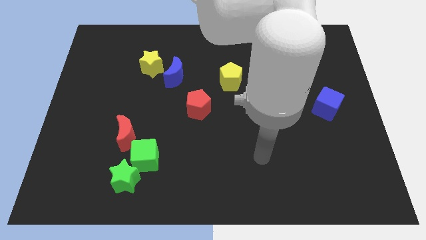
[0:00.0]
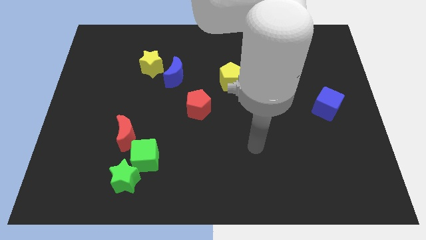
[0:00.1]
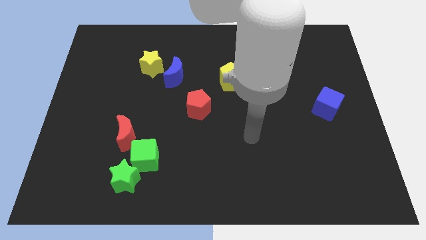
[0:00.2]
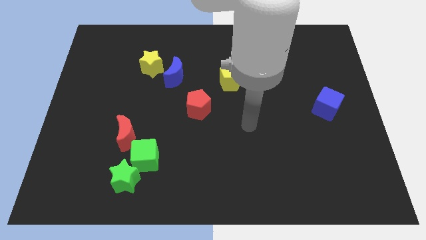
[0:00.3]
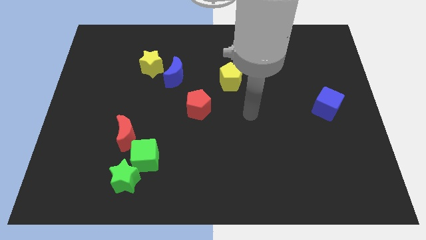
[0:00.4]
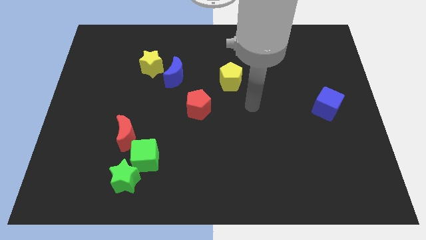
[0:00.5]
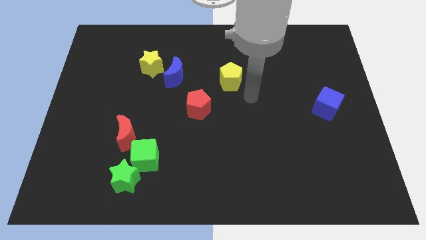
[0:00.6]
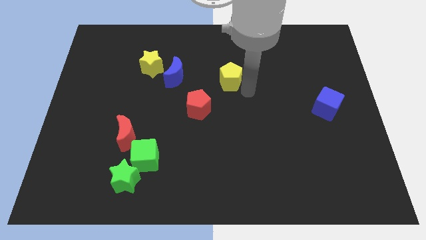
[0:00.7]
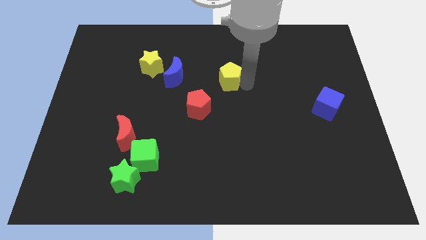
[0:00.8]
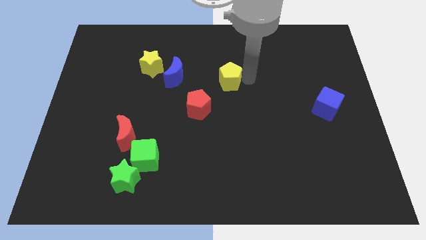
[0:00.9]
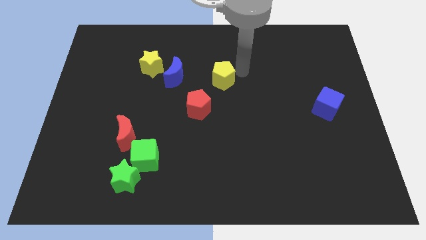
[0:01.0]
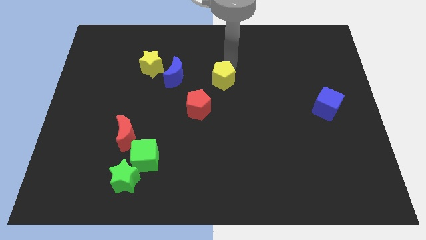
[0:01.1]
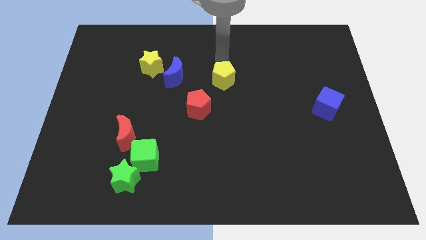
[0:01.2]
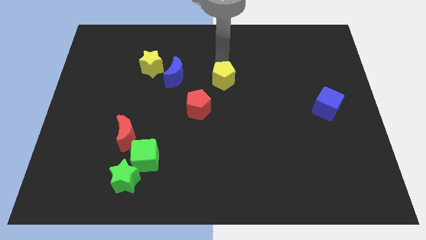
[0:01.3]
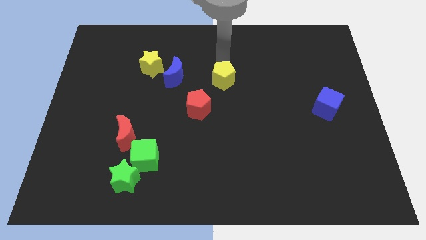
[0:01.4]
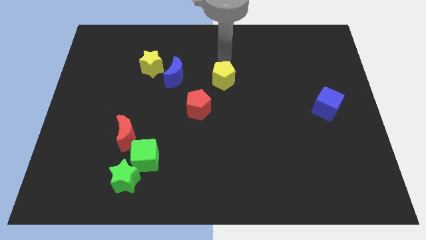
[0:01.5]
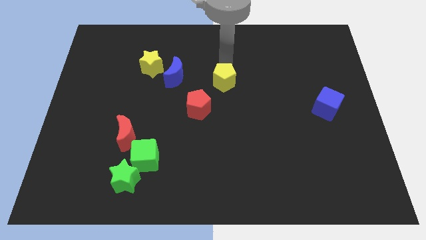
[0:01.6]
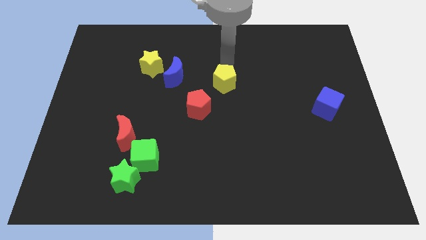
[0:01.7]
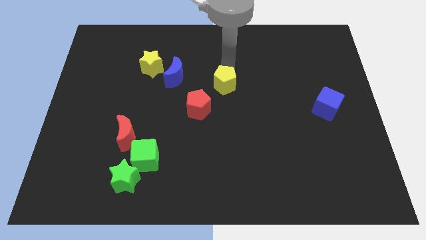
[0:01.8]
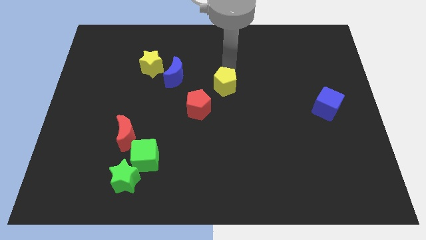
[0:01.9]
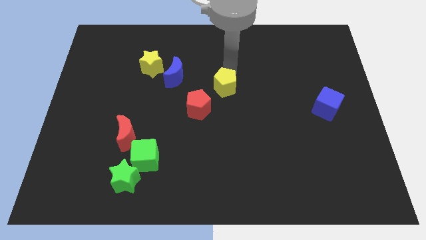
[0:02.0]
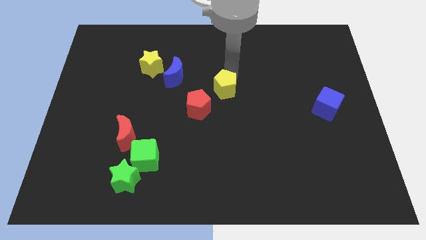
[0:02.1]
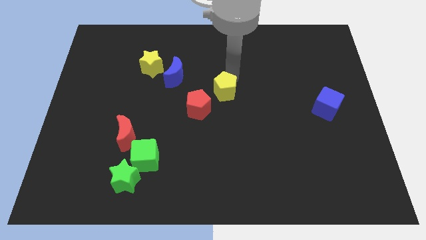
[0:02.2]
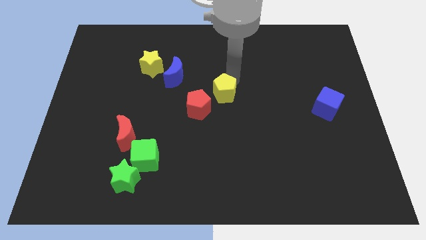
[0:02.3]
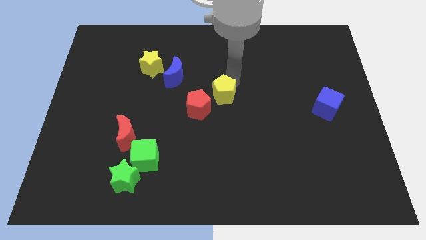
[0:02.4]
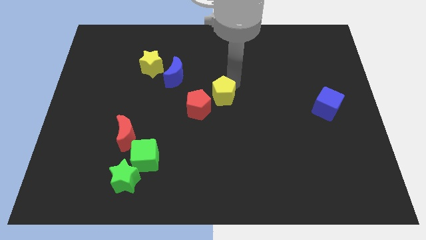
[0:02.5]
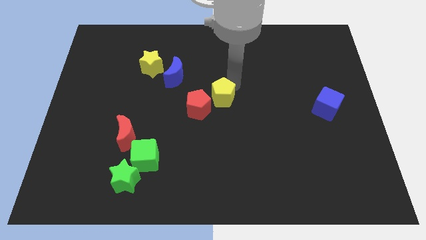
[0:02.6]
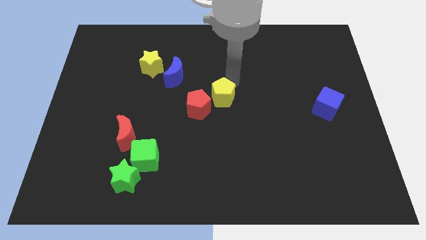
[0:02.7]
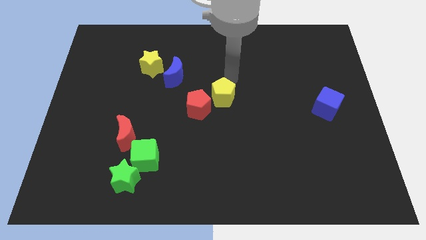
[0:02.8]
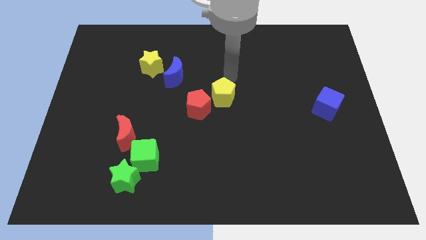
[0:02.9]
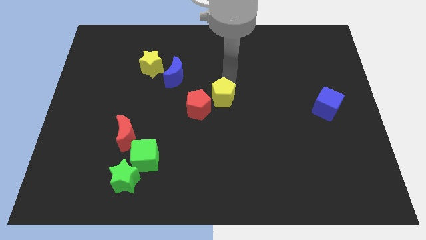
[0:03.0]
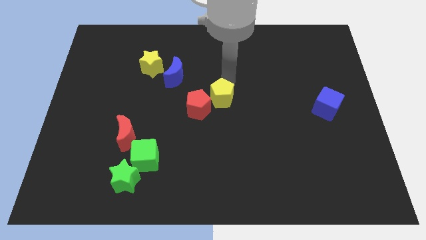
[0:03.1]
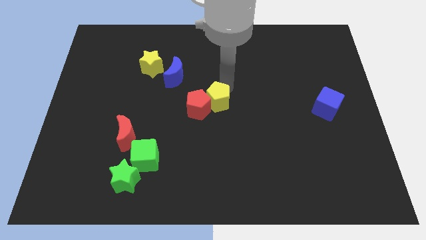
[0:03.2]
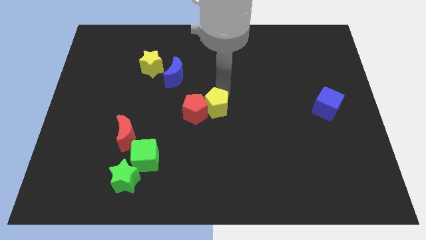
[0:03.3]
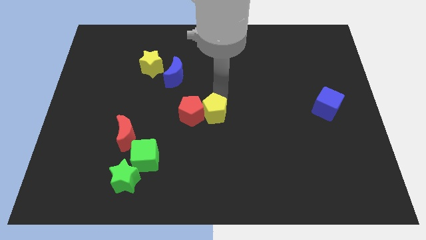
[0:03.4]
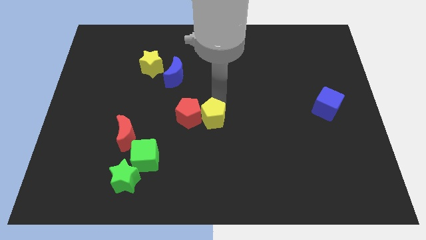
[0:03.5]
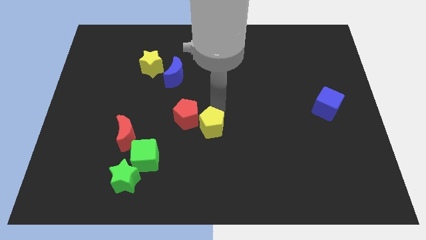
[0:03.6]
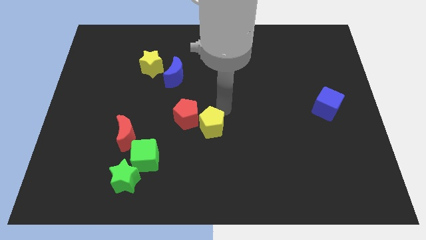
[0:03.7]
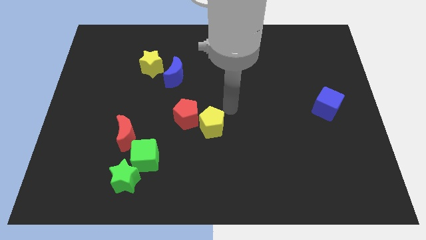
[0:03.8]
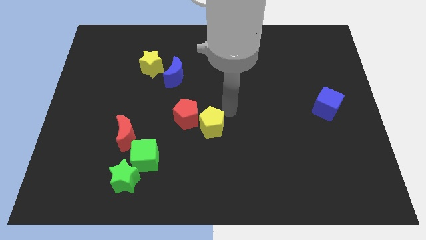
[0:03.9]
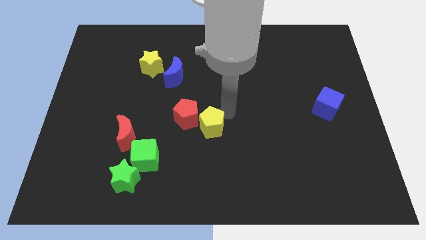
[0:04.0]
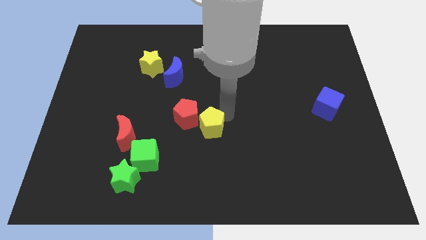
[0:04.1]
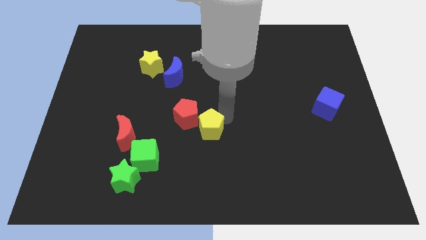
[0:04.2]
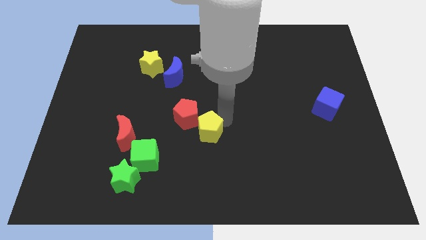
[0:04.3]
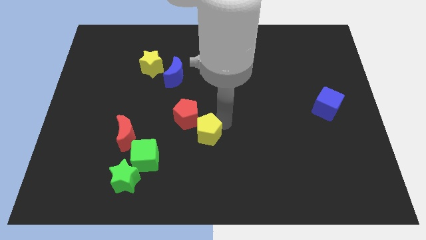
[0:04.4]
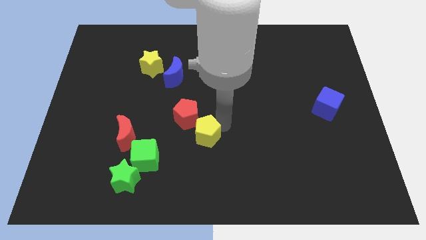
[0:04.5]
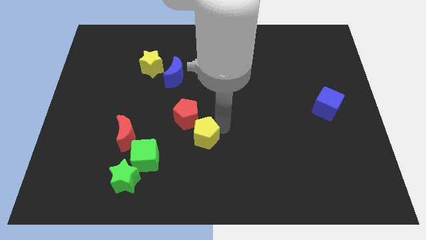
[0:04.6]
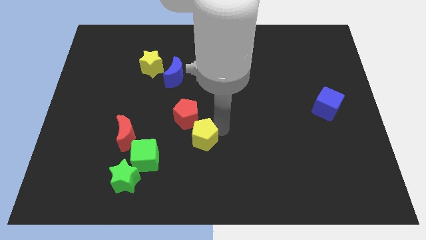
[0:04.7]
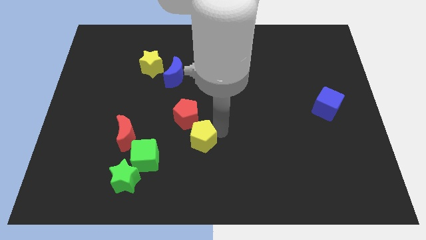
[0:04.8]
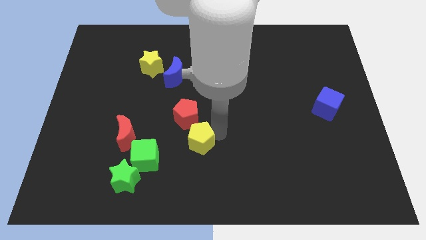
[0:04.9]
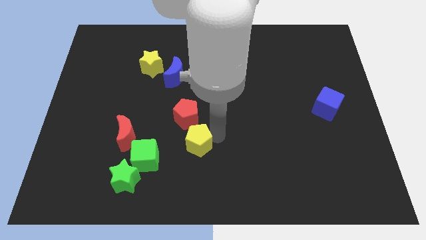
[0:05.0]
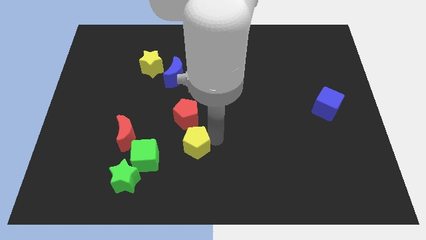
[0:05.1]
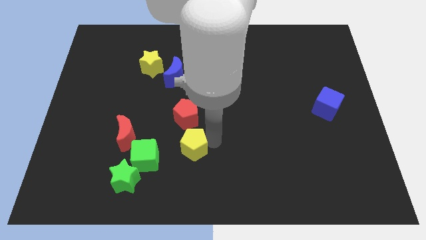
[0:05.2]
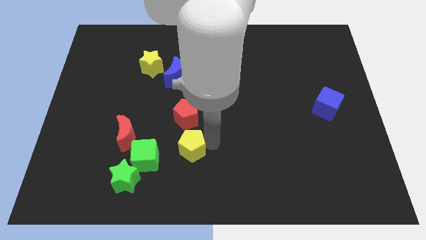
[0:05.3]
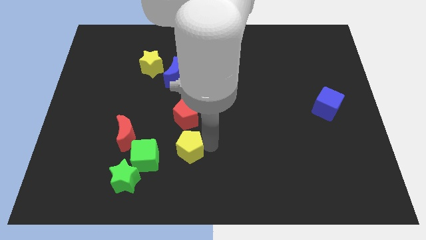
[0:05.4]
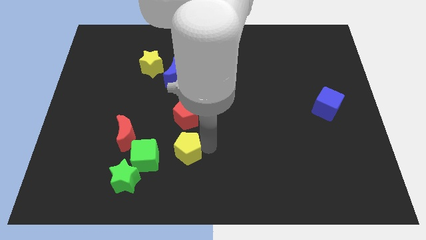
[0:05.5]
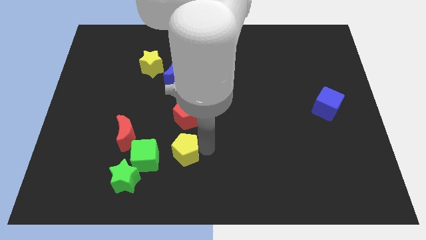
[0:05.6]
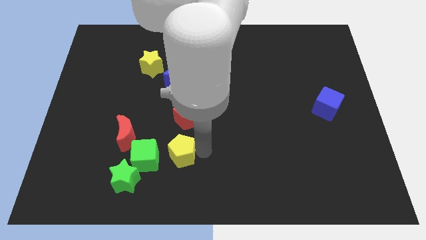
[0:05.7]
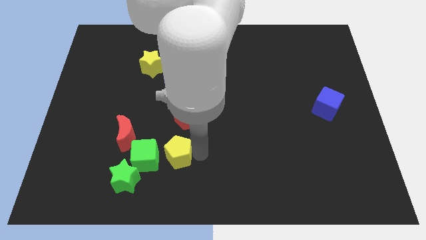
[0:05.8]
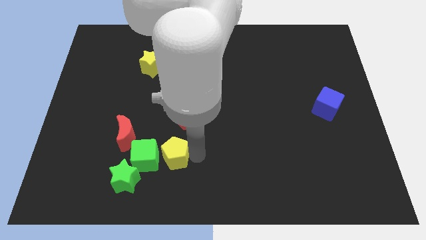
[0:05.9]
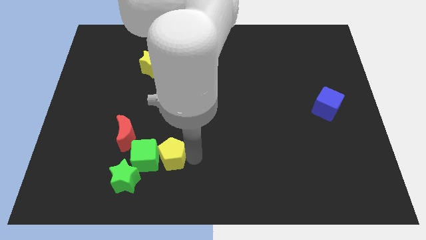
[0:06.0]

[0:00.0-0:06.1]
move the yellow pentagon towards the green cube

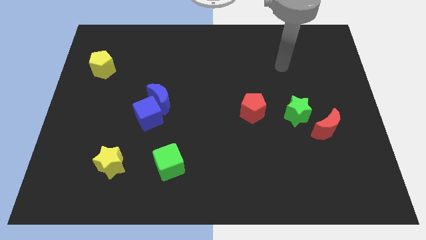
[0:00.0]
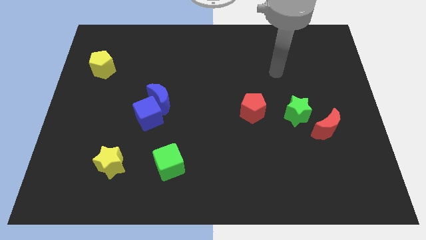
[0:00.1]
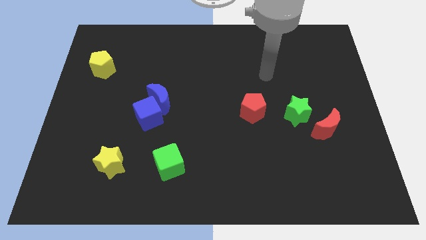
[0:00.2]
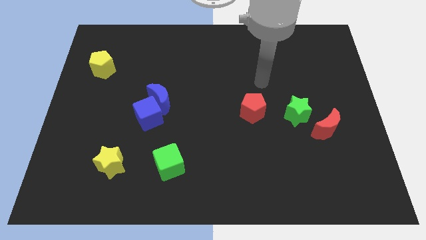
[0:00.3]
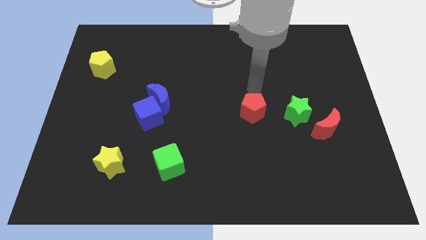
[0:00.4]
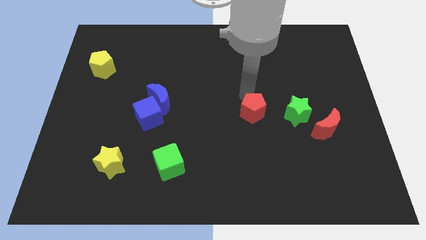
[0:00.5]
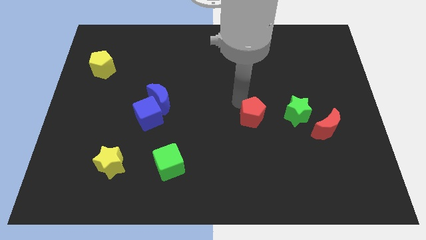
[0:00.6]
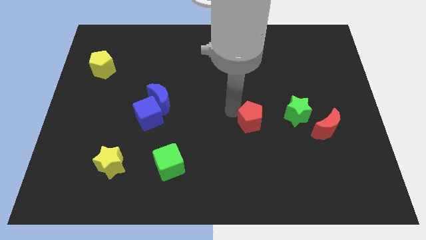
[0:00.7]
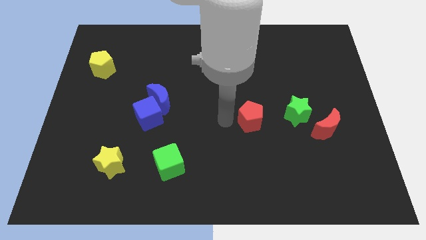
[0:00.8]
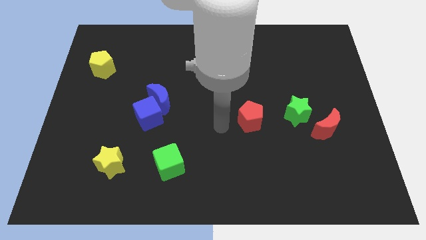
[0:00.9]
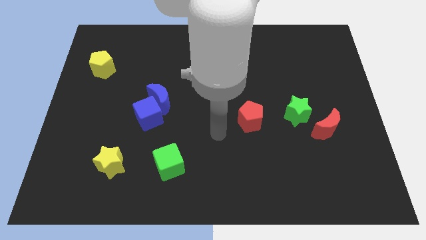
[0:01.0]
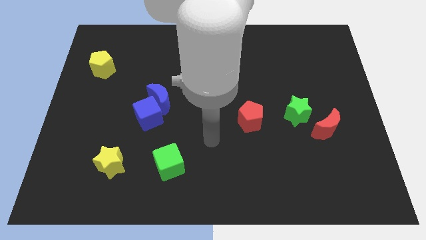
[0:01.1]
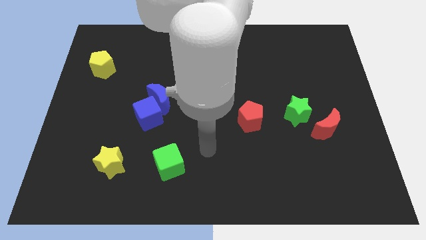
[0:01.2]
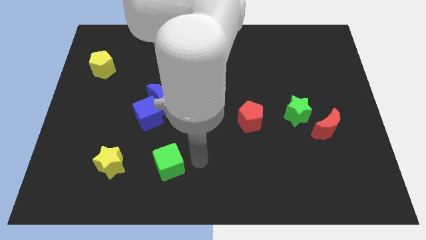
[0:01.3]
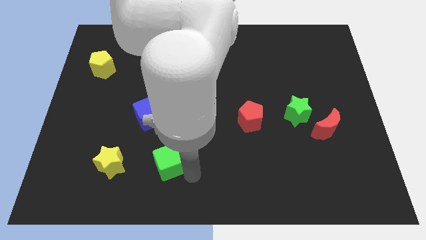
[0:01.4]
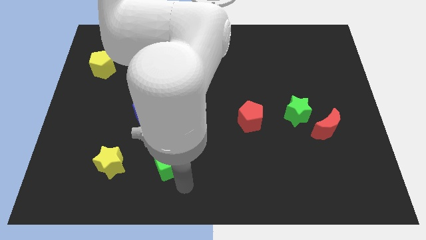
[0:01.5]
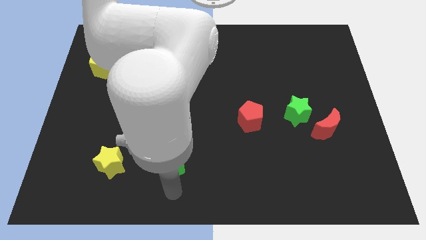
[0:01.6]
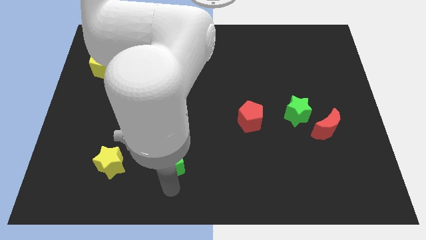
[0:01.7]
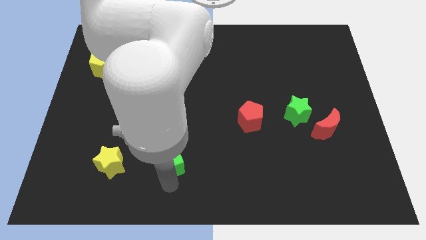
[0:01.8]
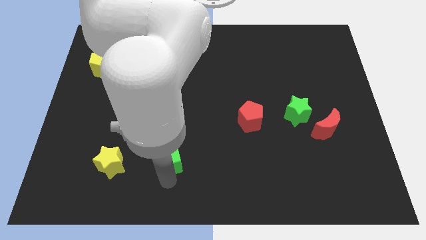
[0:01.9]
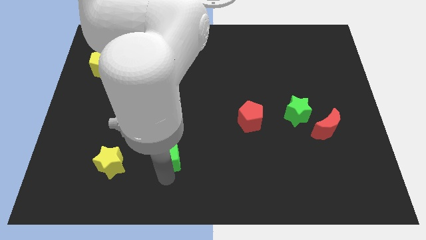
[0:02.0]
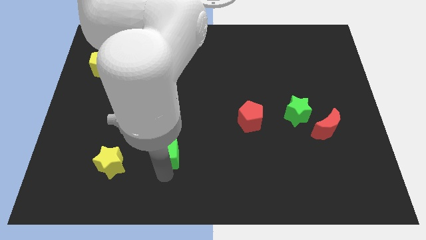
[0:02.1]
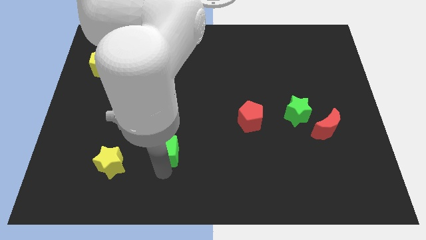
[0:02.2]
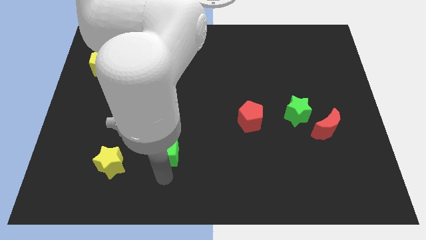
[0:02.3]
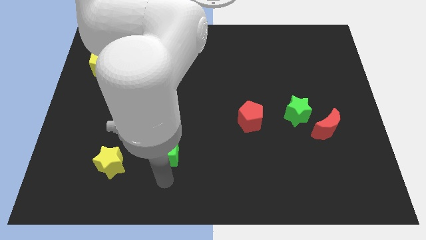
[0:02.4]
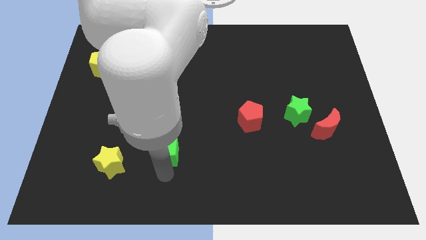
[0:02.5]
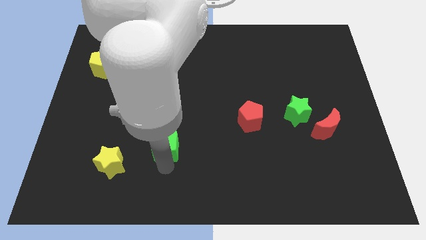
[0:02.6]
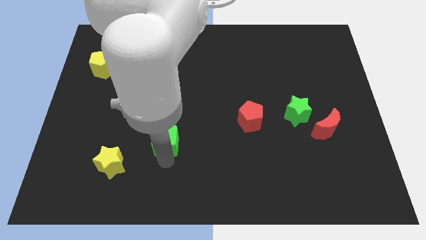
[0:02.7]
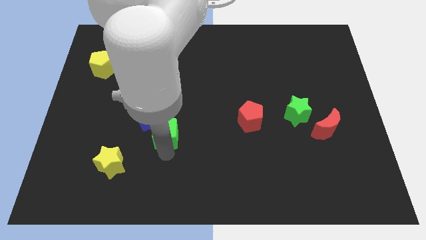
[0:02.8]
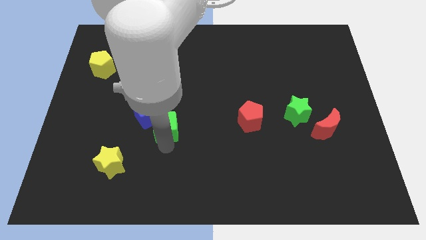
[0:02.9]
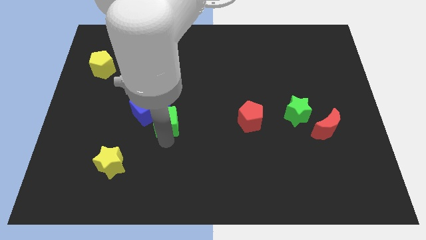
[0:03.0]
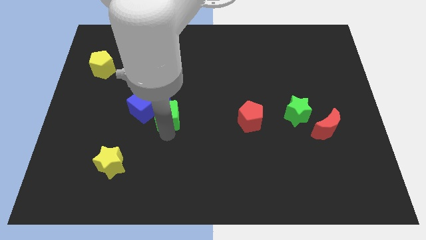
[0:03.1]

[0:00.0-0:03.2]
push the green cube close to the blue moon
